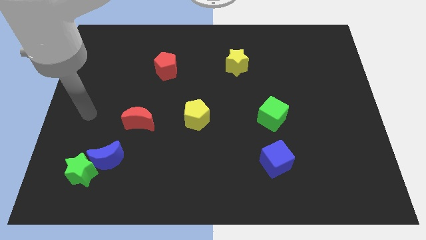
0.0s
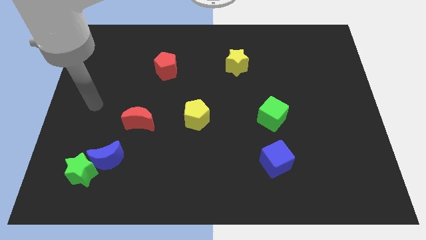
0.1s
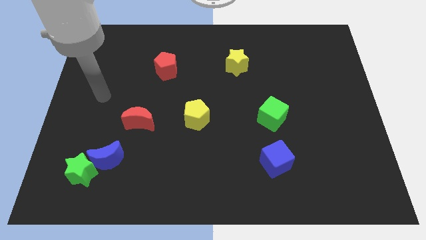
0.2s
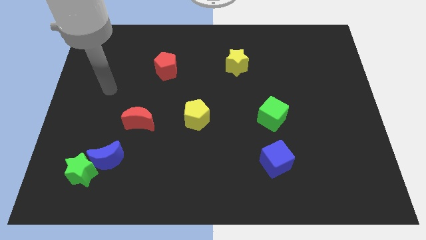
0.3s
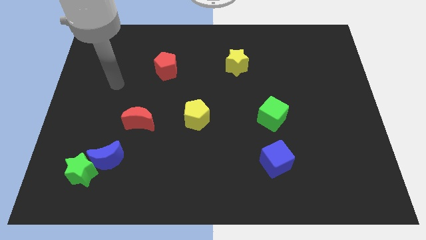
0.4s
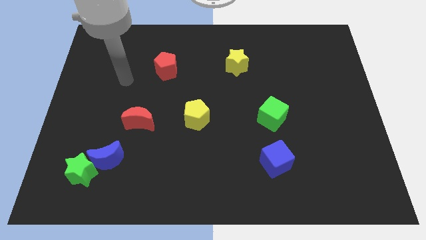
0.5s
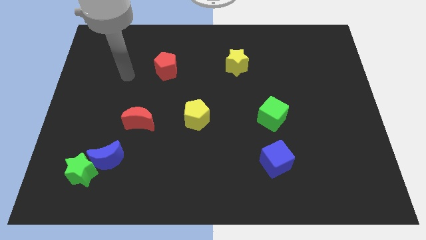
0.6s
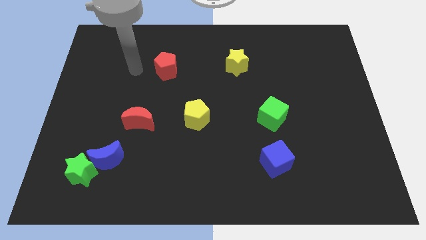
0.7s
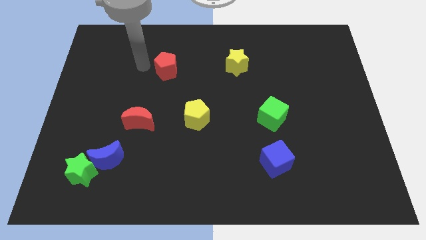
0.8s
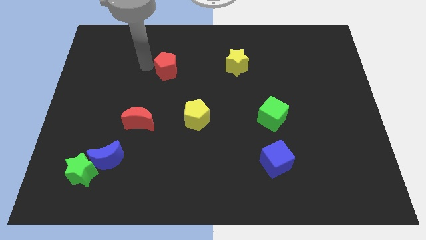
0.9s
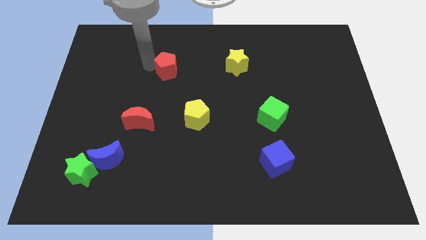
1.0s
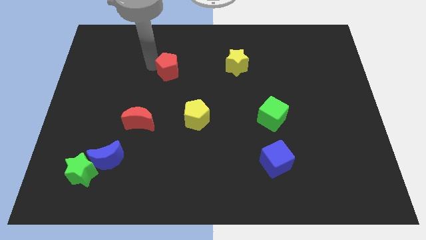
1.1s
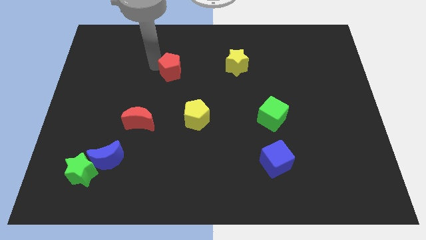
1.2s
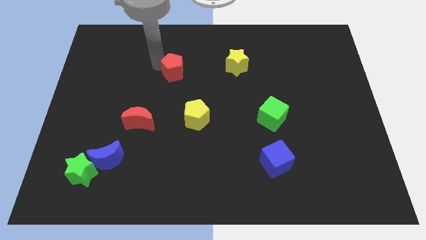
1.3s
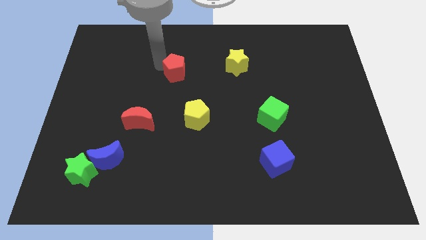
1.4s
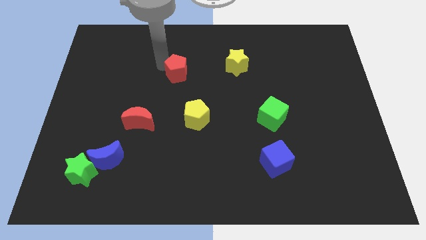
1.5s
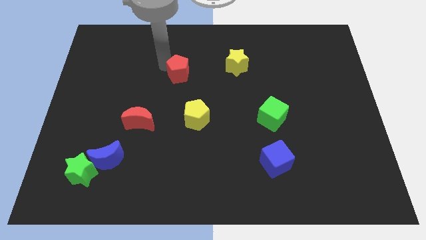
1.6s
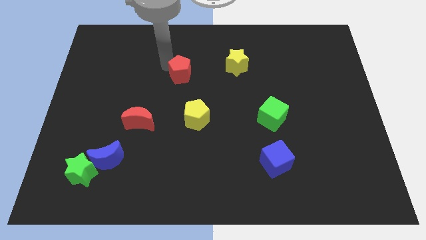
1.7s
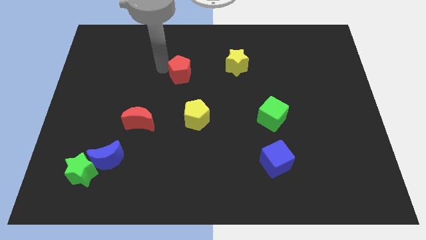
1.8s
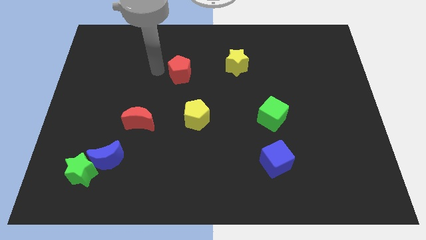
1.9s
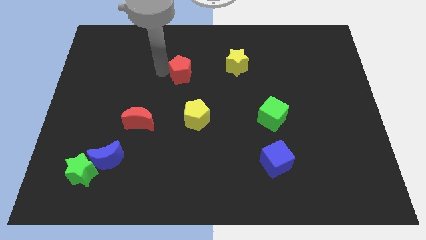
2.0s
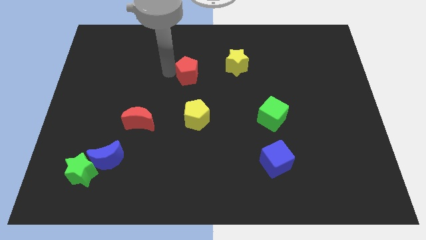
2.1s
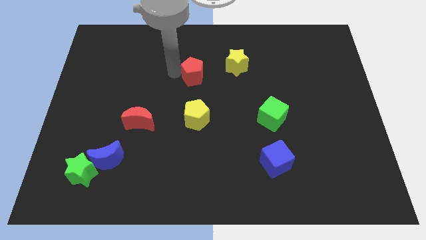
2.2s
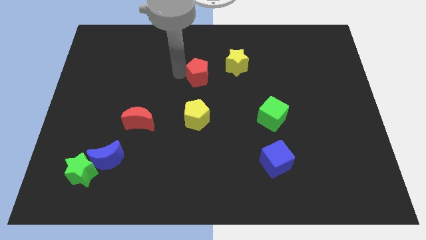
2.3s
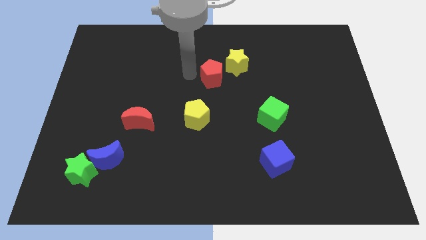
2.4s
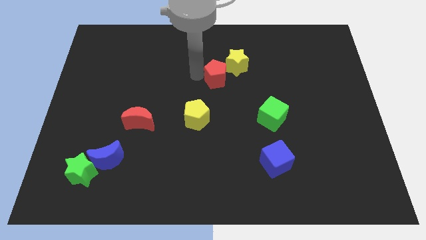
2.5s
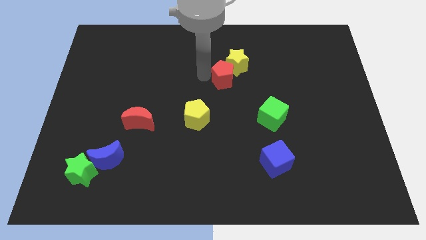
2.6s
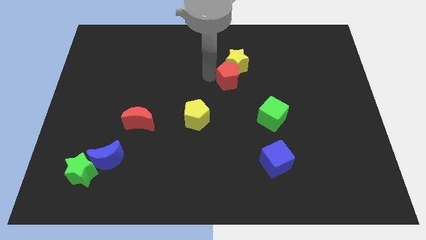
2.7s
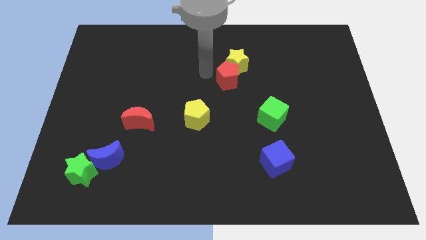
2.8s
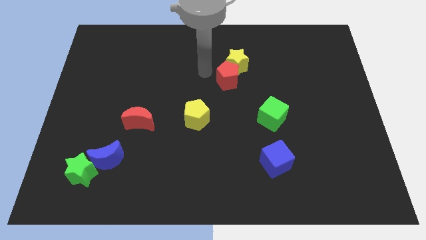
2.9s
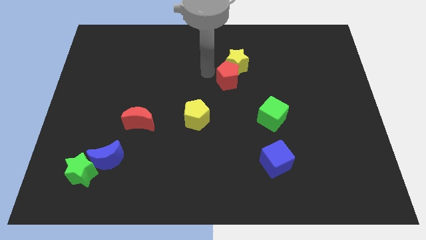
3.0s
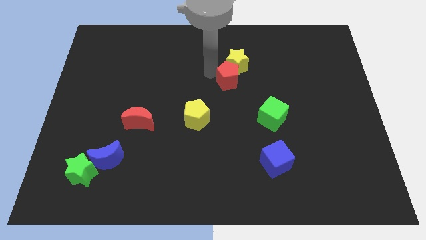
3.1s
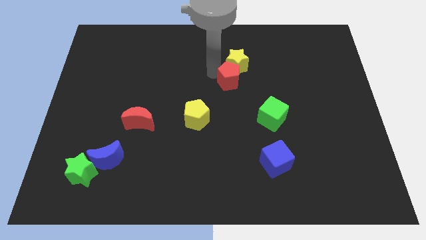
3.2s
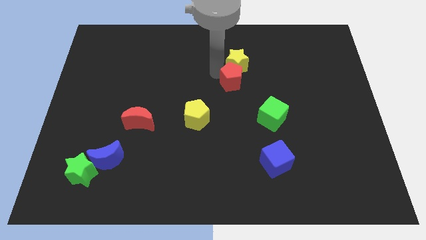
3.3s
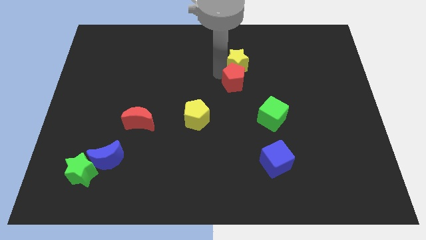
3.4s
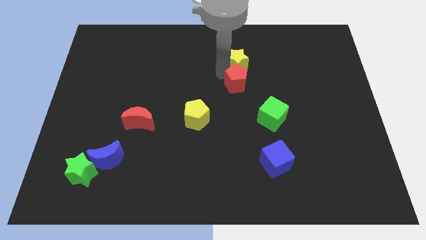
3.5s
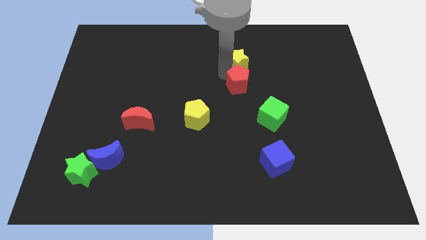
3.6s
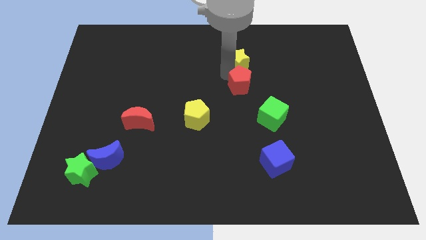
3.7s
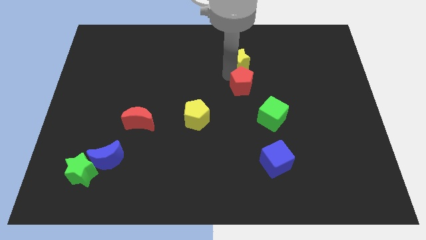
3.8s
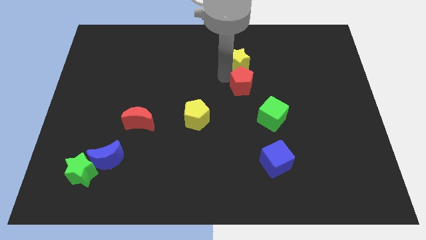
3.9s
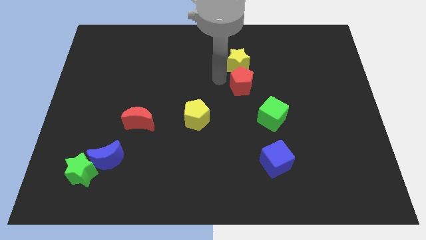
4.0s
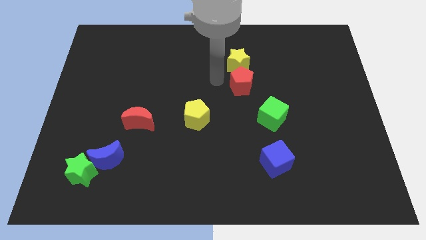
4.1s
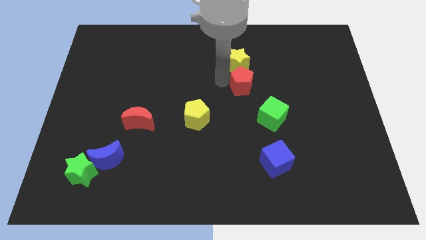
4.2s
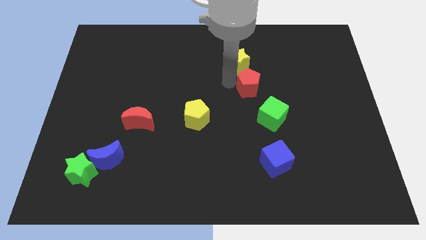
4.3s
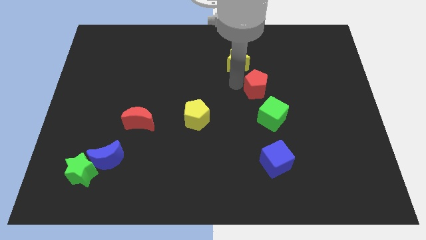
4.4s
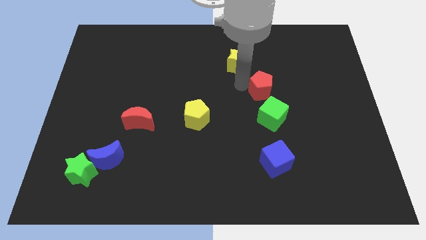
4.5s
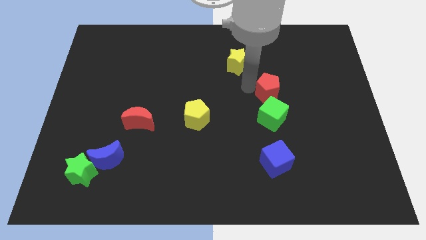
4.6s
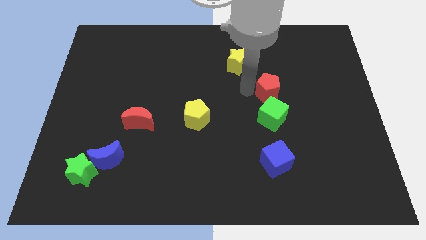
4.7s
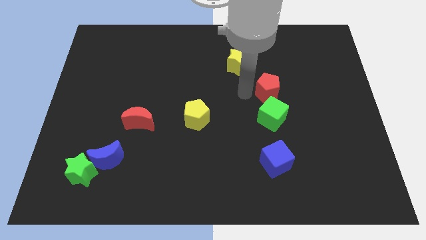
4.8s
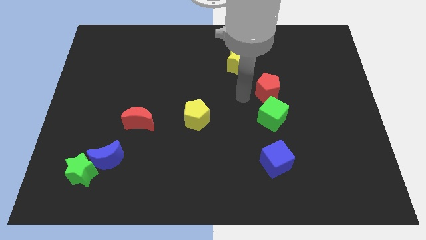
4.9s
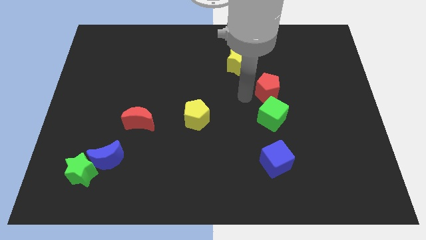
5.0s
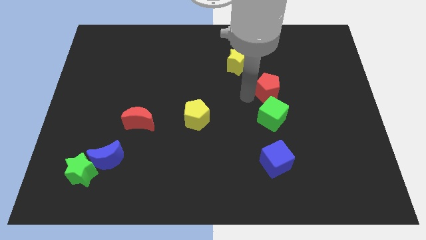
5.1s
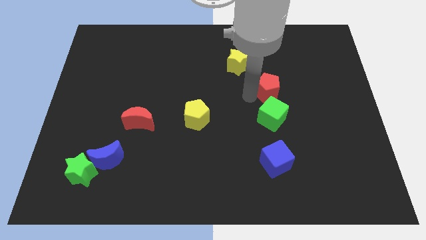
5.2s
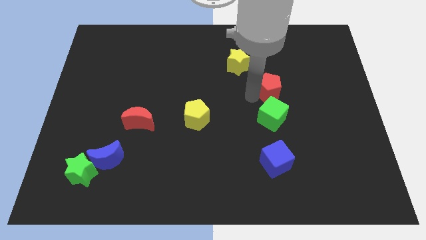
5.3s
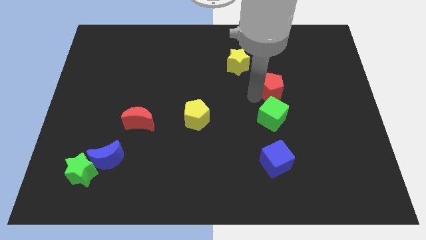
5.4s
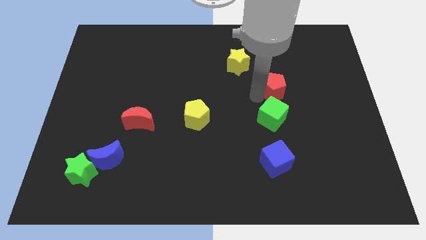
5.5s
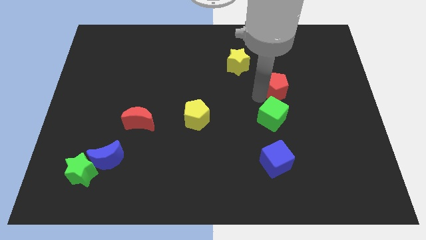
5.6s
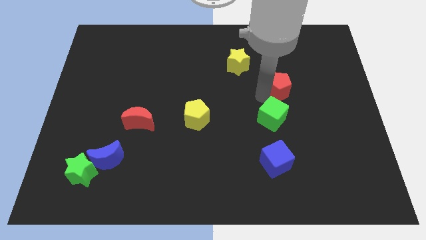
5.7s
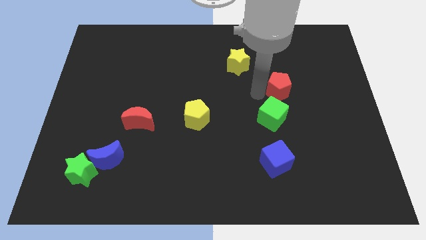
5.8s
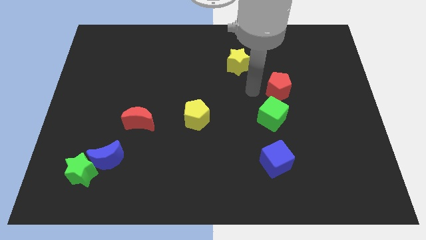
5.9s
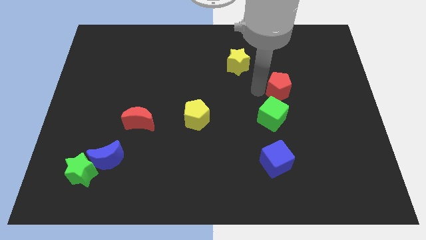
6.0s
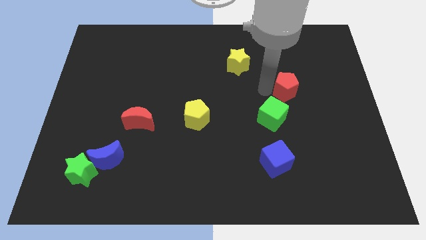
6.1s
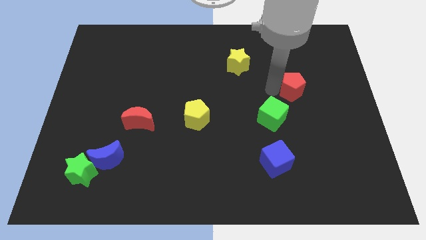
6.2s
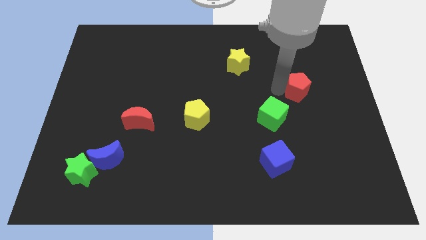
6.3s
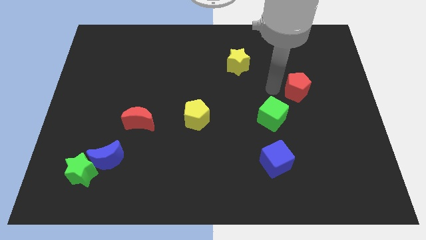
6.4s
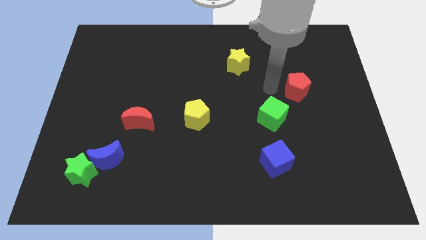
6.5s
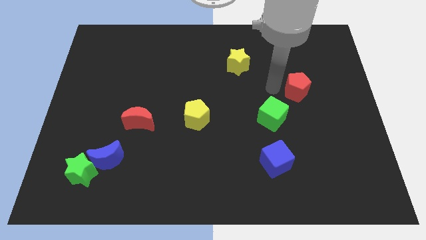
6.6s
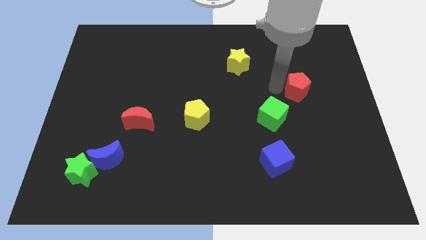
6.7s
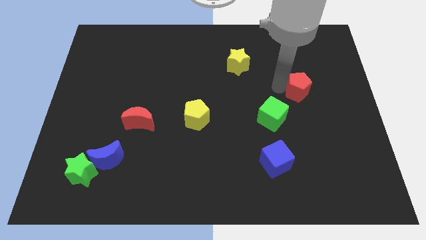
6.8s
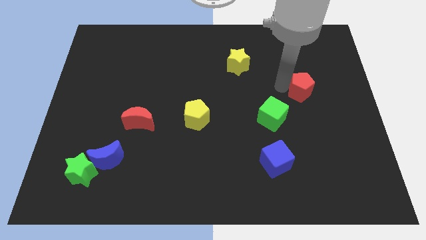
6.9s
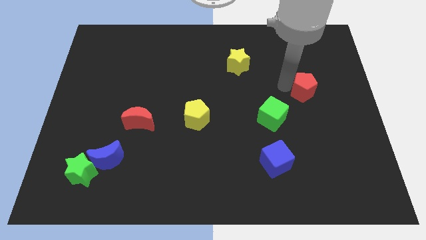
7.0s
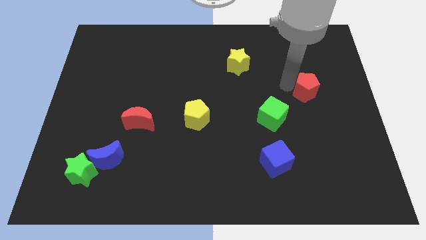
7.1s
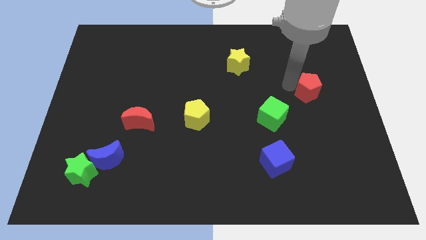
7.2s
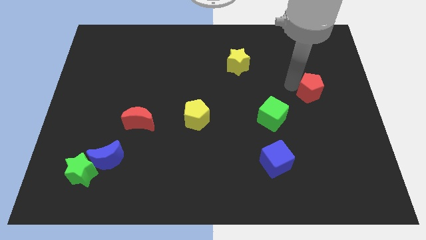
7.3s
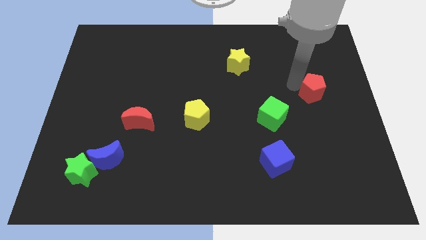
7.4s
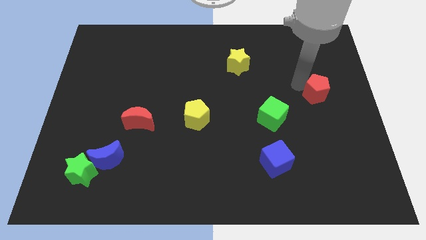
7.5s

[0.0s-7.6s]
move the red pentagon to the right side of the board
